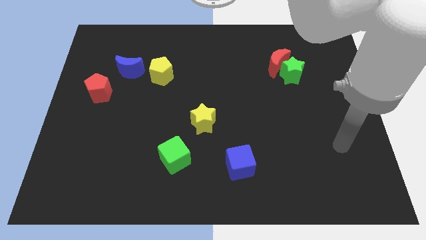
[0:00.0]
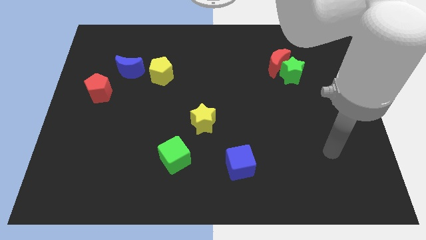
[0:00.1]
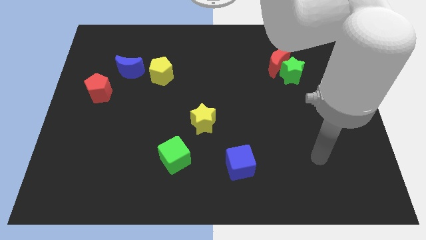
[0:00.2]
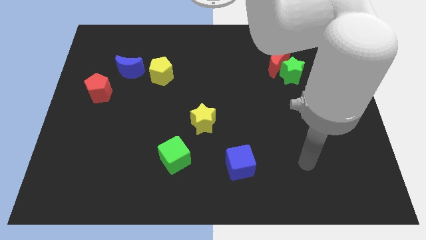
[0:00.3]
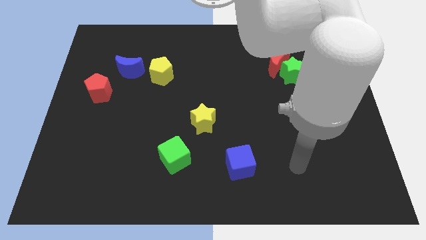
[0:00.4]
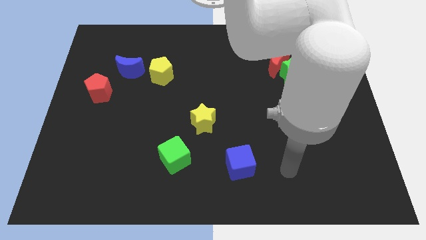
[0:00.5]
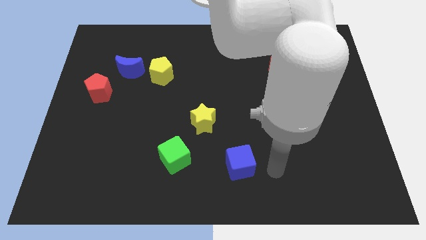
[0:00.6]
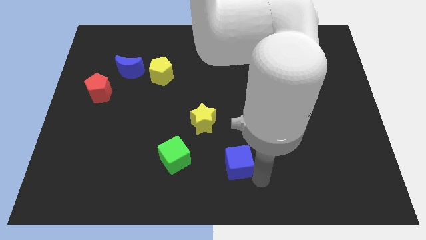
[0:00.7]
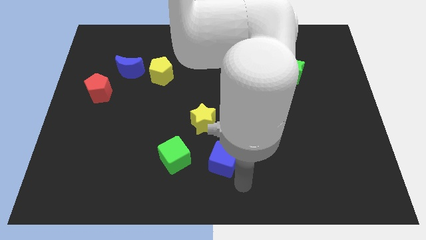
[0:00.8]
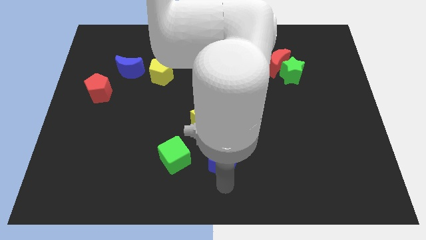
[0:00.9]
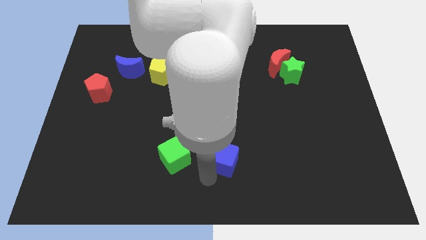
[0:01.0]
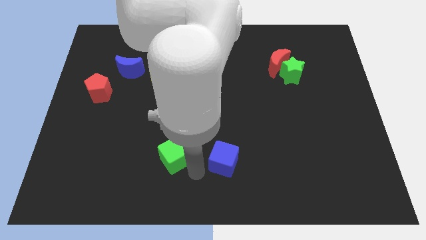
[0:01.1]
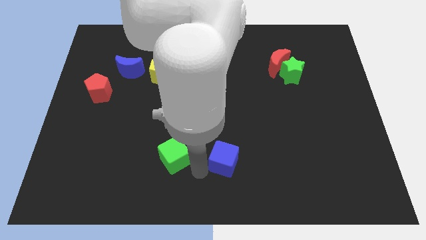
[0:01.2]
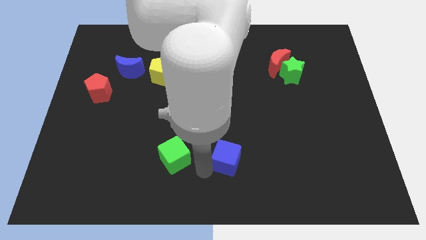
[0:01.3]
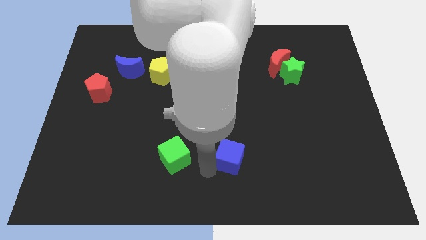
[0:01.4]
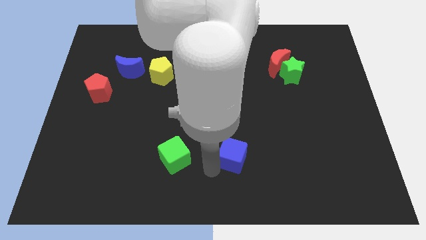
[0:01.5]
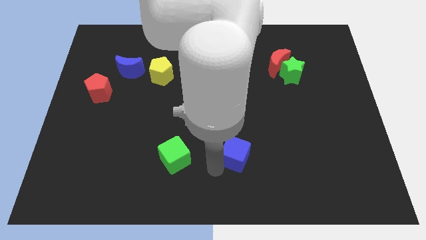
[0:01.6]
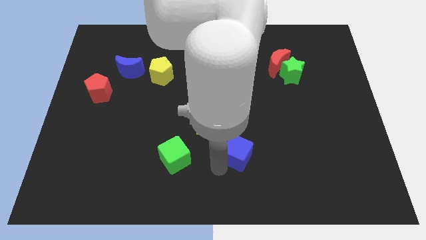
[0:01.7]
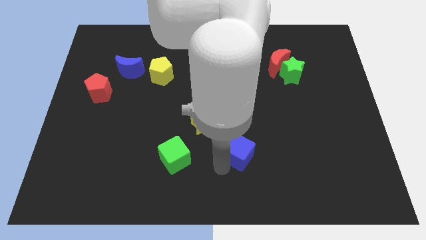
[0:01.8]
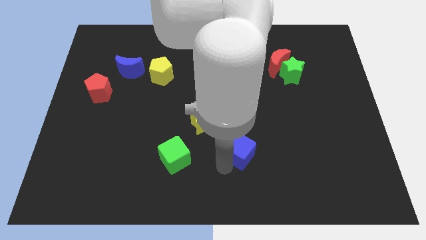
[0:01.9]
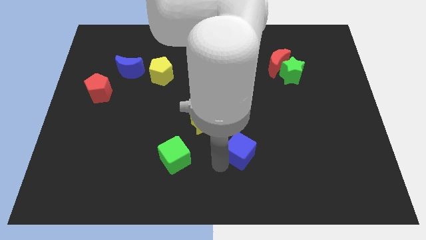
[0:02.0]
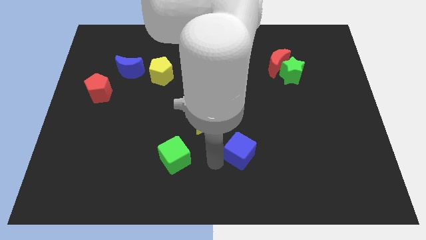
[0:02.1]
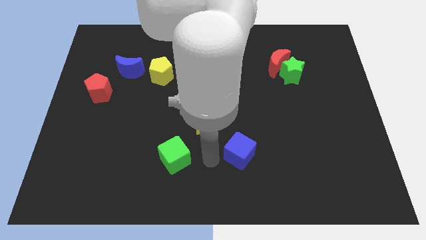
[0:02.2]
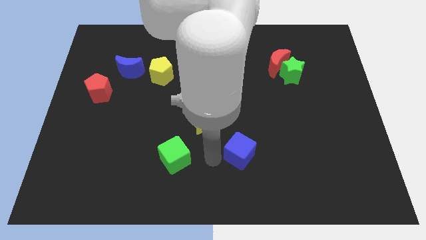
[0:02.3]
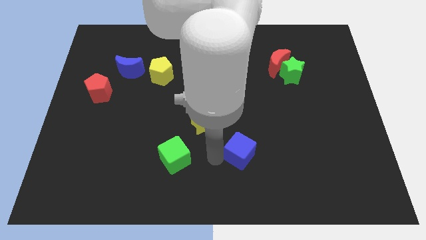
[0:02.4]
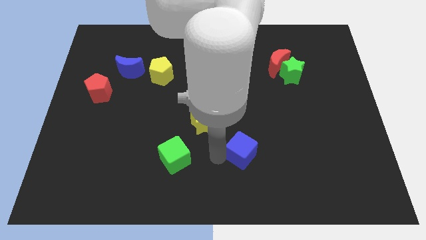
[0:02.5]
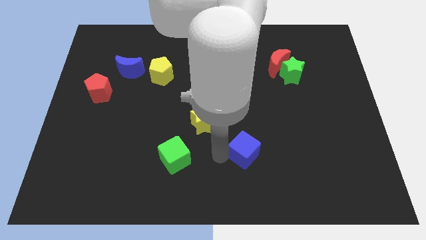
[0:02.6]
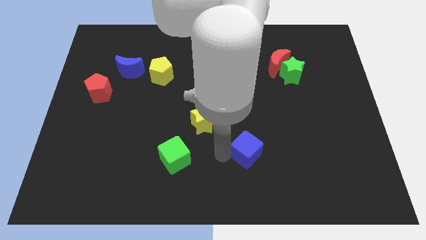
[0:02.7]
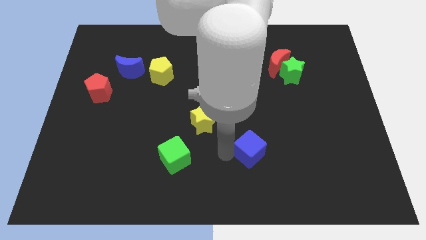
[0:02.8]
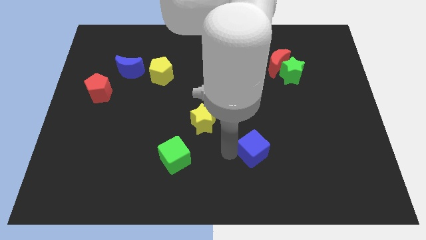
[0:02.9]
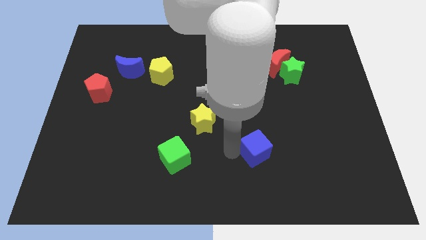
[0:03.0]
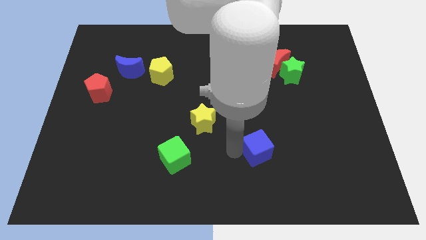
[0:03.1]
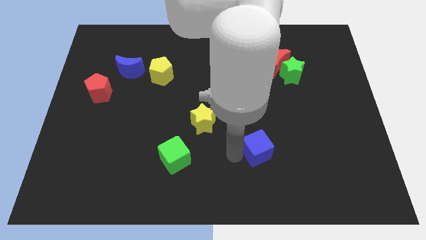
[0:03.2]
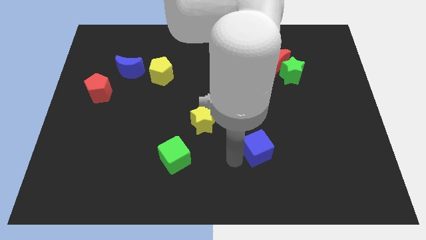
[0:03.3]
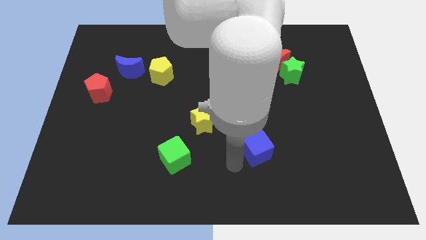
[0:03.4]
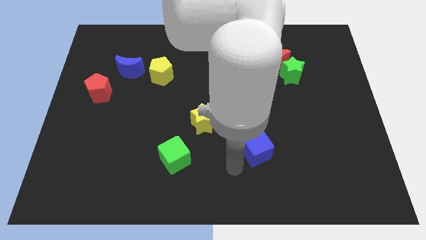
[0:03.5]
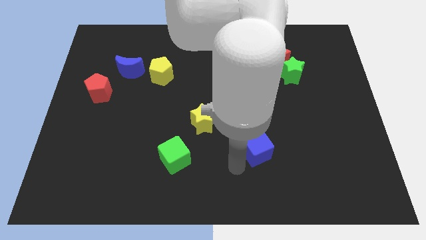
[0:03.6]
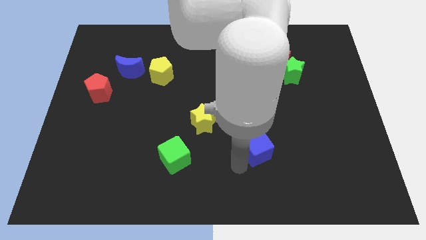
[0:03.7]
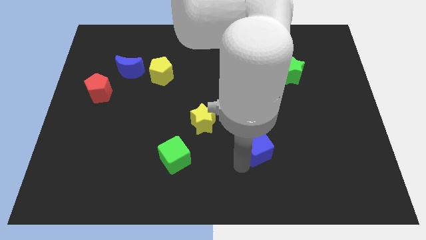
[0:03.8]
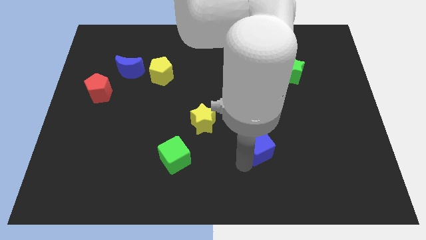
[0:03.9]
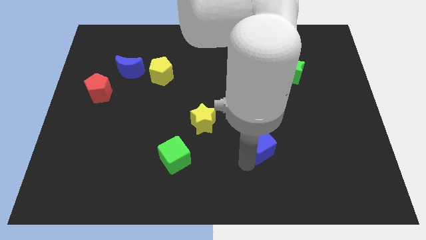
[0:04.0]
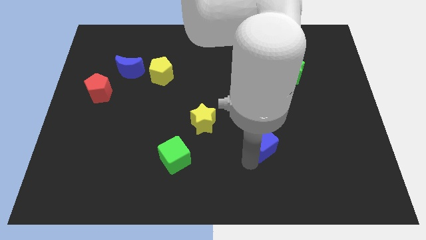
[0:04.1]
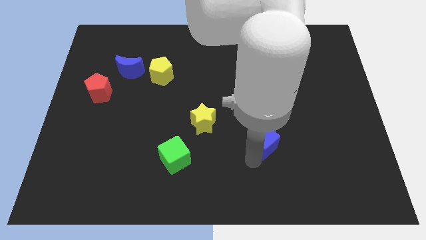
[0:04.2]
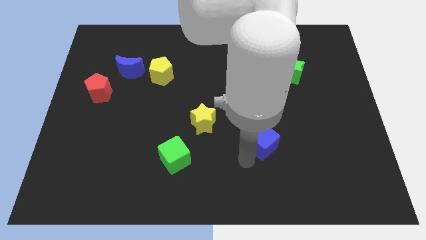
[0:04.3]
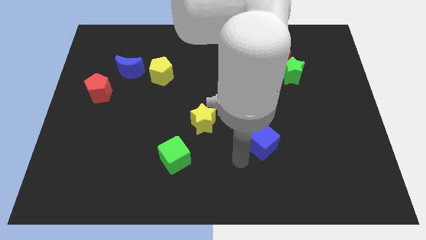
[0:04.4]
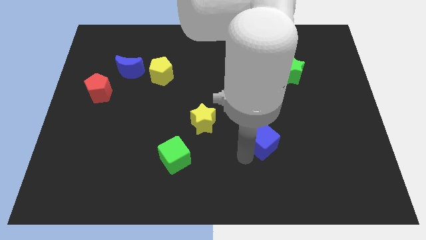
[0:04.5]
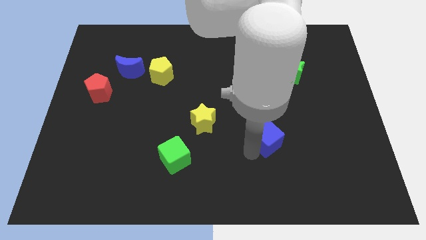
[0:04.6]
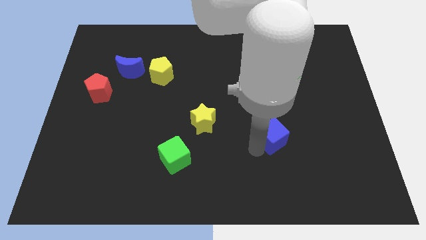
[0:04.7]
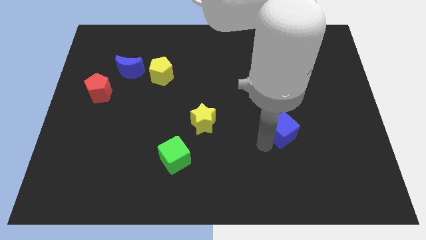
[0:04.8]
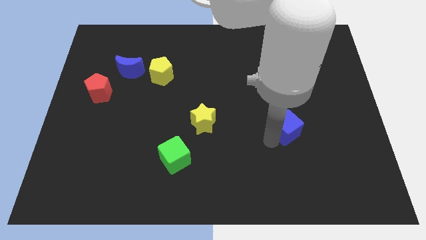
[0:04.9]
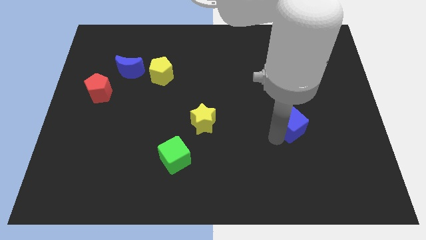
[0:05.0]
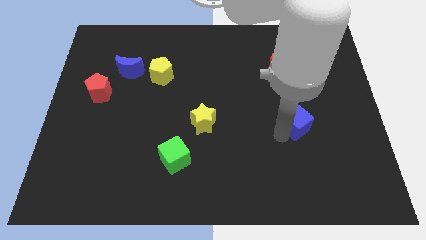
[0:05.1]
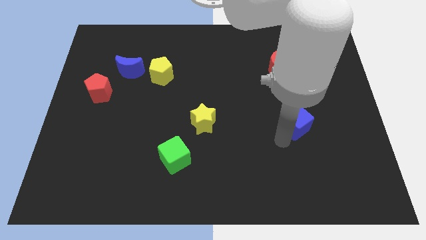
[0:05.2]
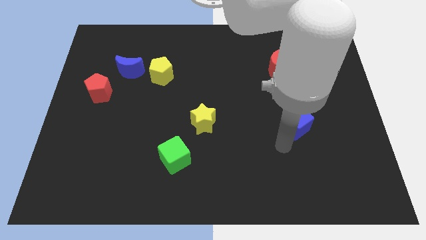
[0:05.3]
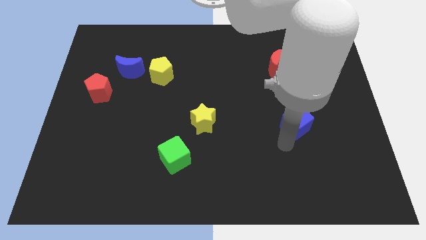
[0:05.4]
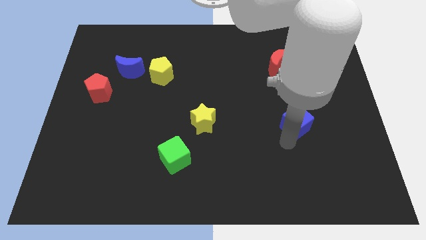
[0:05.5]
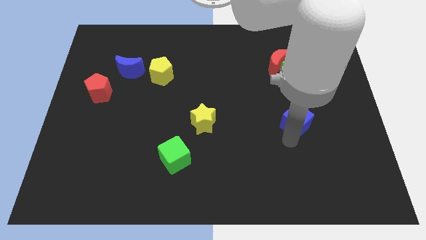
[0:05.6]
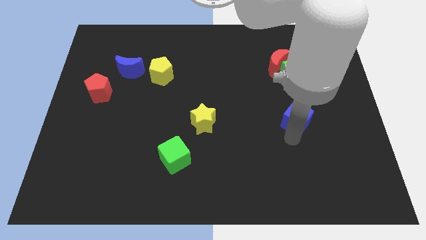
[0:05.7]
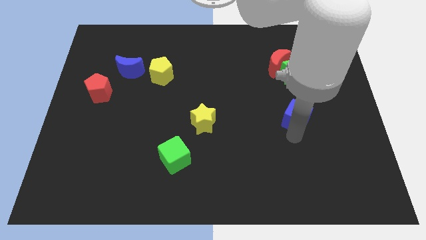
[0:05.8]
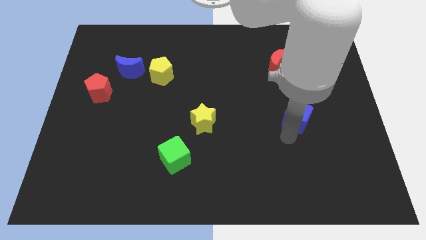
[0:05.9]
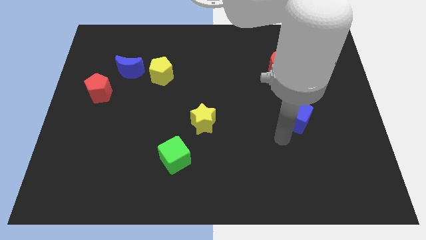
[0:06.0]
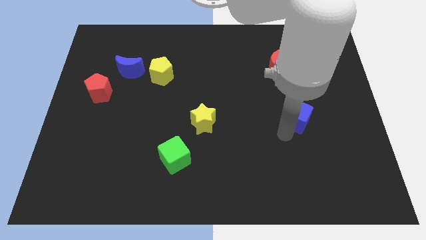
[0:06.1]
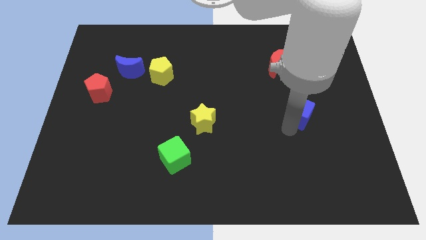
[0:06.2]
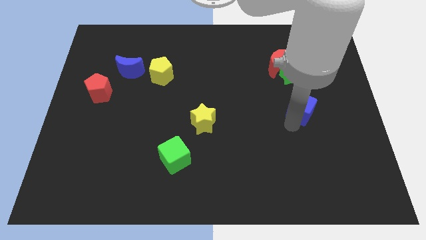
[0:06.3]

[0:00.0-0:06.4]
push the blue cube diagonally up and to the right

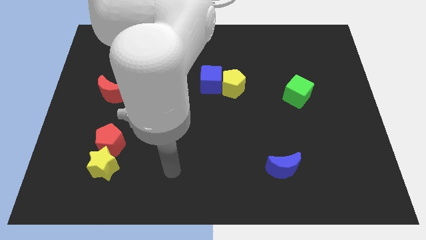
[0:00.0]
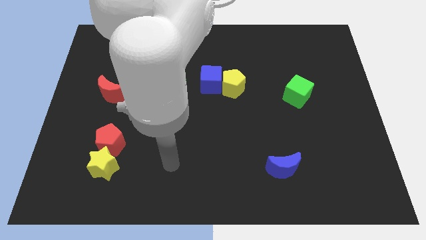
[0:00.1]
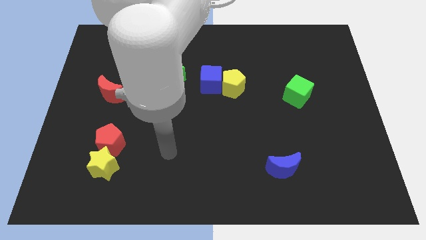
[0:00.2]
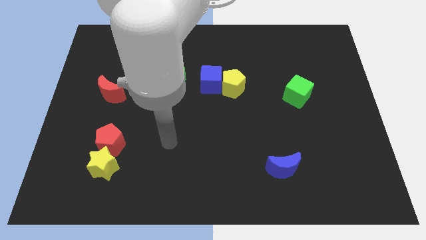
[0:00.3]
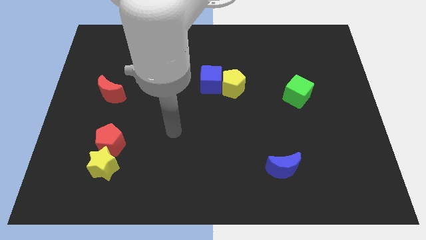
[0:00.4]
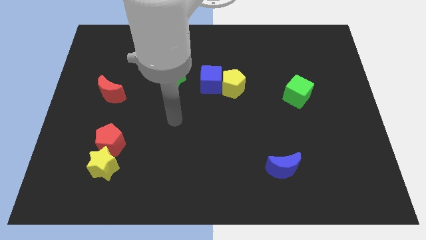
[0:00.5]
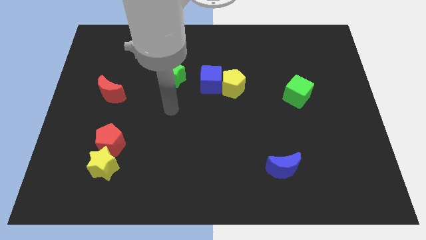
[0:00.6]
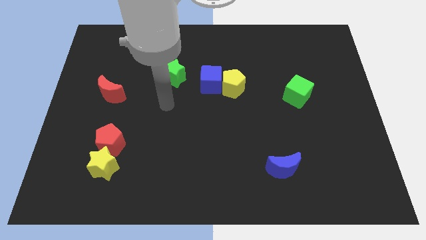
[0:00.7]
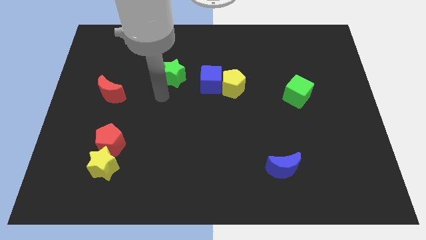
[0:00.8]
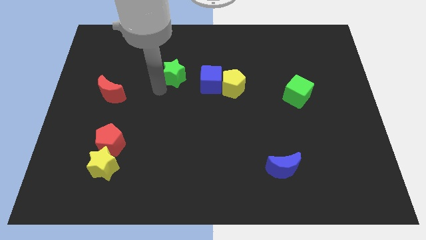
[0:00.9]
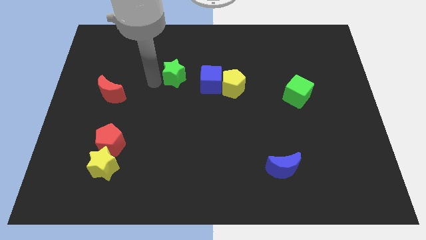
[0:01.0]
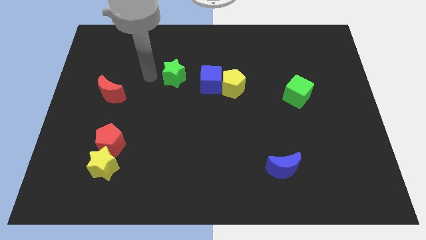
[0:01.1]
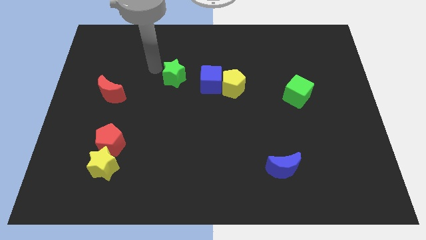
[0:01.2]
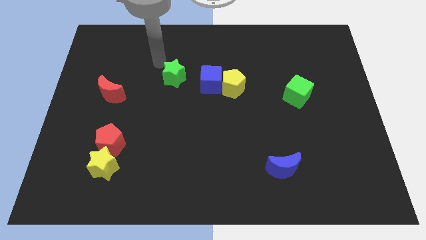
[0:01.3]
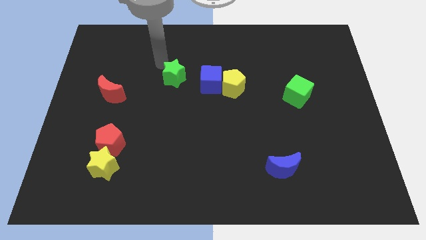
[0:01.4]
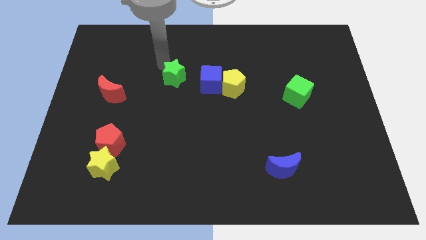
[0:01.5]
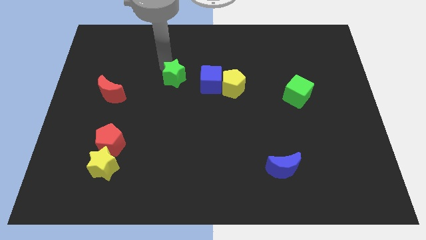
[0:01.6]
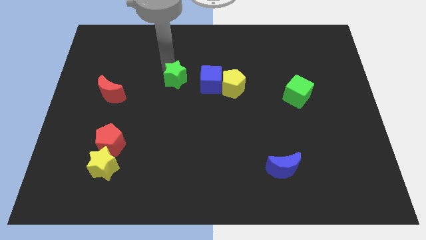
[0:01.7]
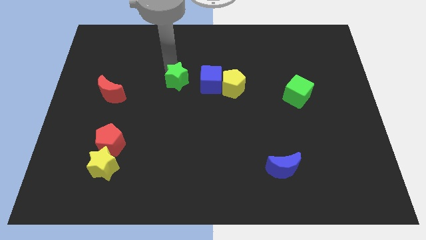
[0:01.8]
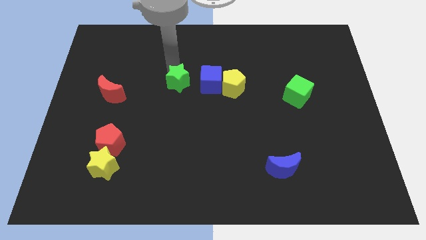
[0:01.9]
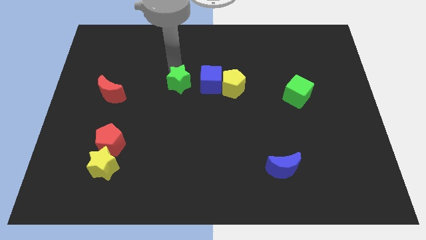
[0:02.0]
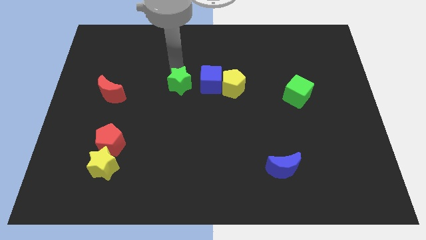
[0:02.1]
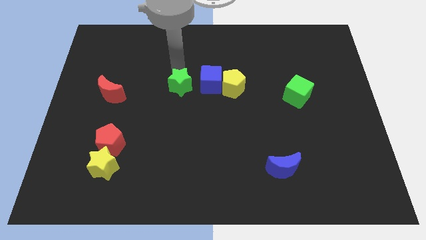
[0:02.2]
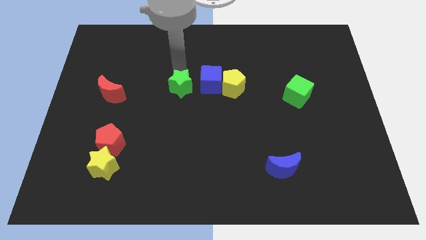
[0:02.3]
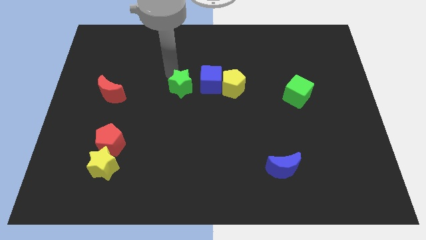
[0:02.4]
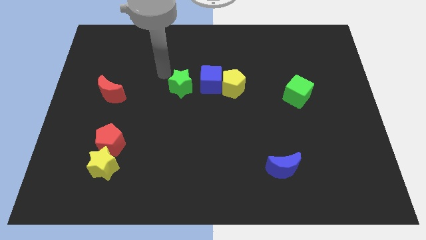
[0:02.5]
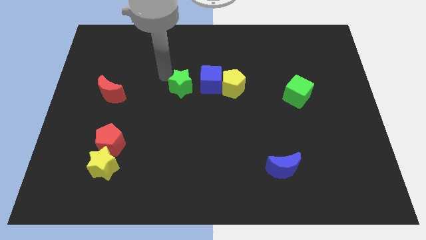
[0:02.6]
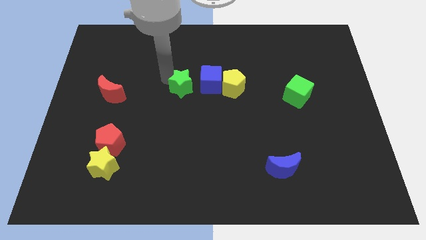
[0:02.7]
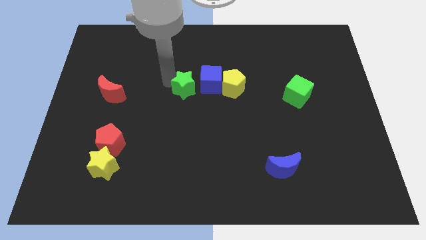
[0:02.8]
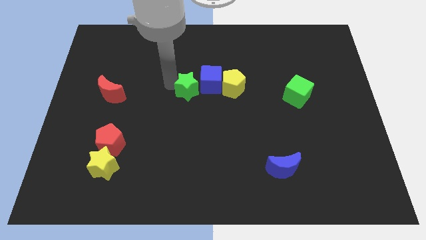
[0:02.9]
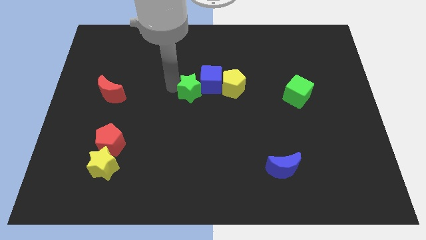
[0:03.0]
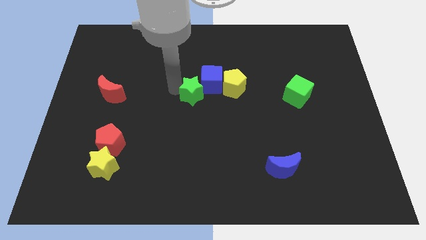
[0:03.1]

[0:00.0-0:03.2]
move the green star somewhat down and then right
